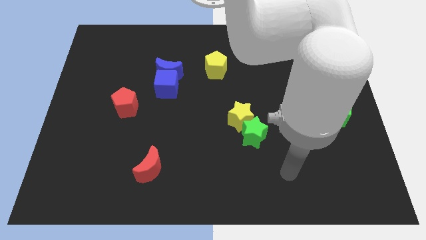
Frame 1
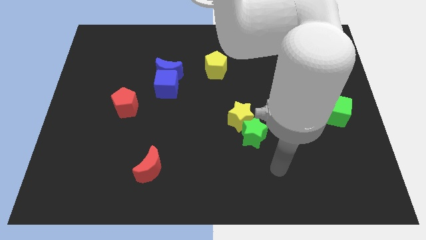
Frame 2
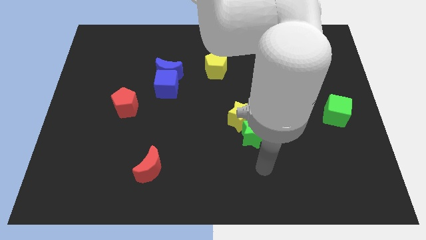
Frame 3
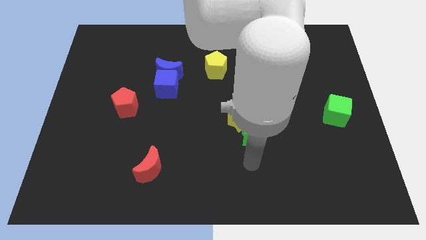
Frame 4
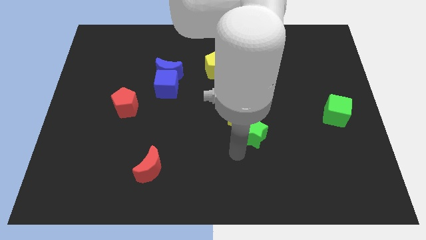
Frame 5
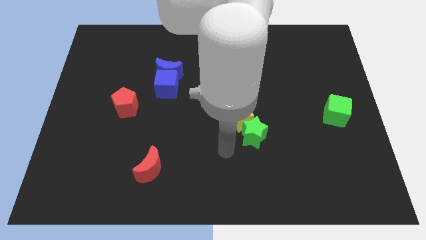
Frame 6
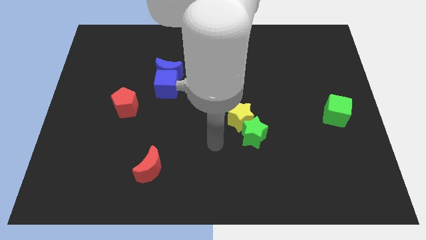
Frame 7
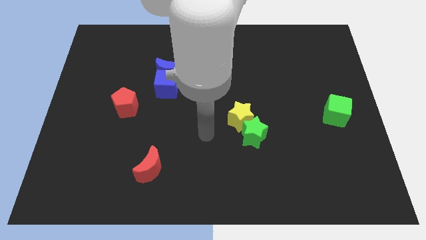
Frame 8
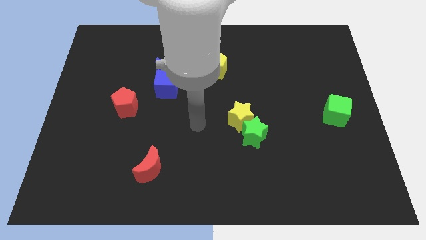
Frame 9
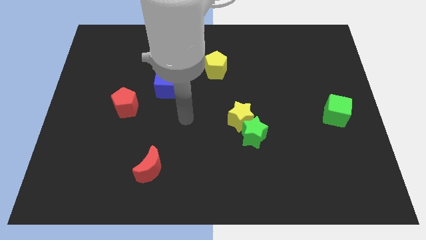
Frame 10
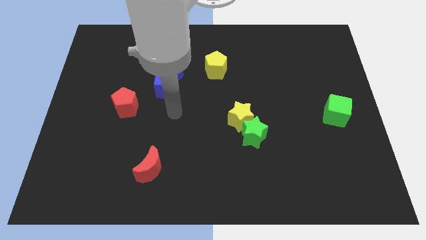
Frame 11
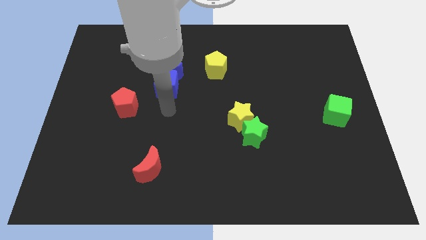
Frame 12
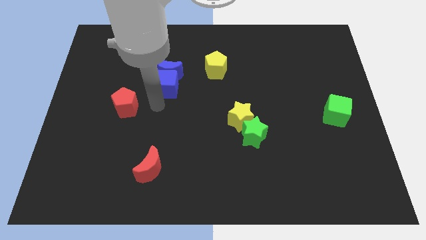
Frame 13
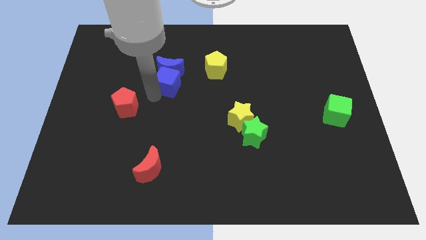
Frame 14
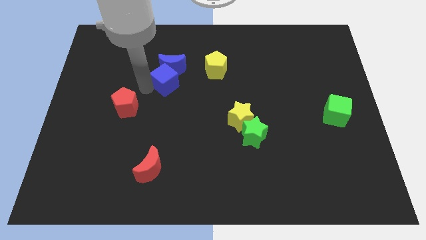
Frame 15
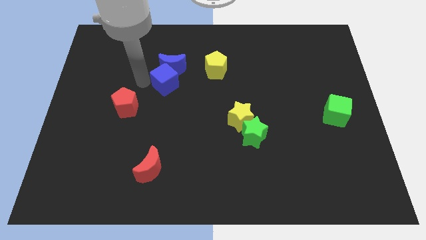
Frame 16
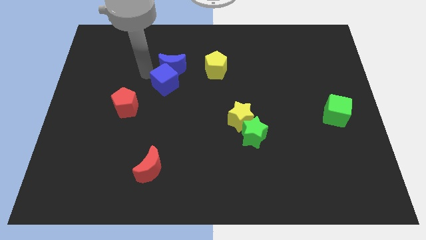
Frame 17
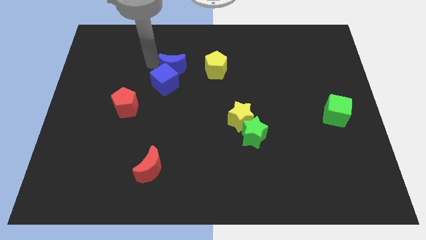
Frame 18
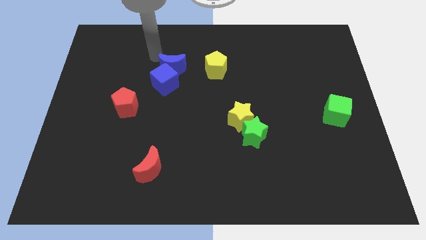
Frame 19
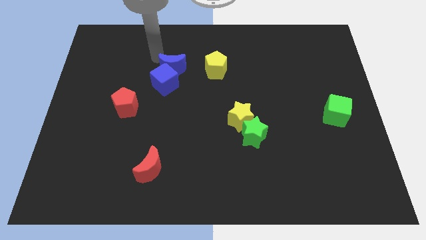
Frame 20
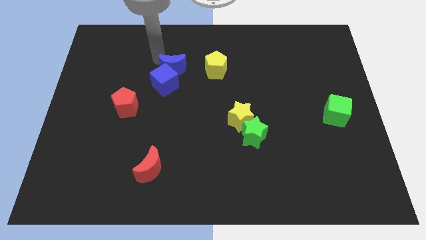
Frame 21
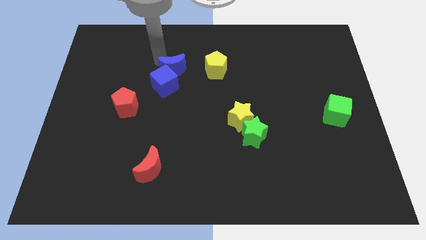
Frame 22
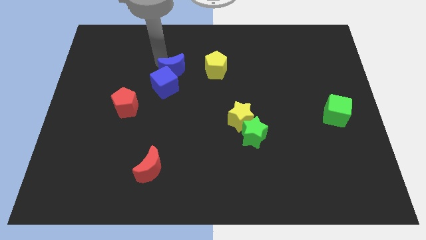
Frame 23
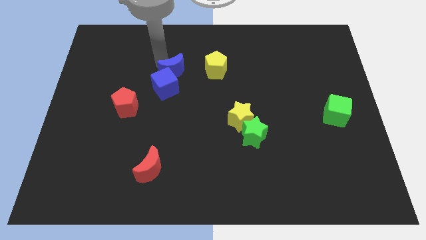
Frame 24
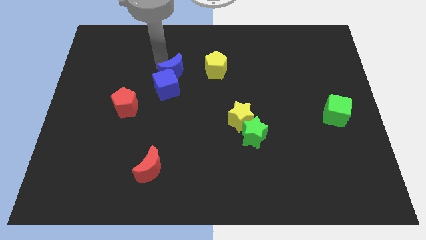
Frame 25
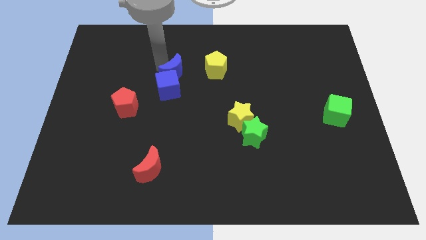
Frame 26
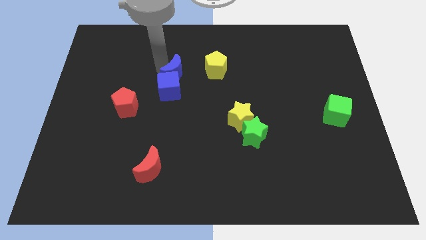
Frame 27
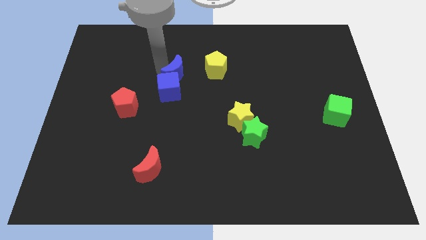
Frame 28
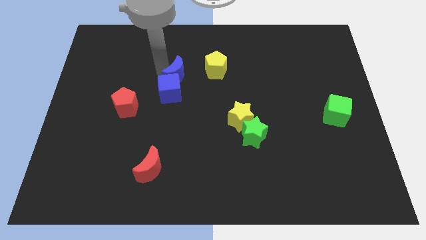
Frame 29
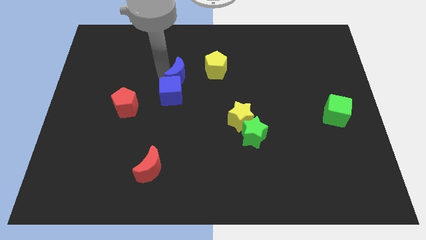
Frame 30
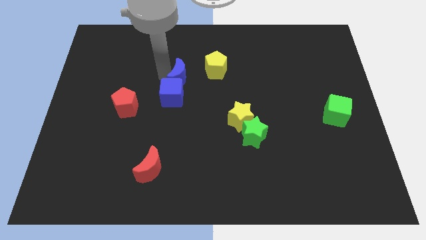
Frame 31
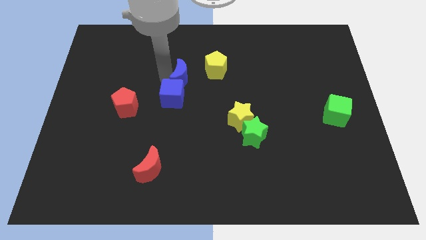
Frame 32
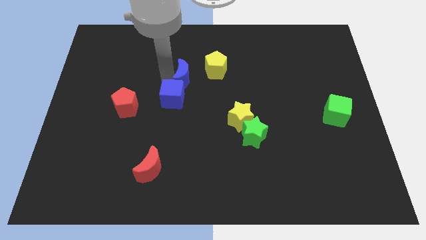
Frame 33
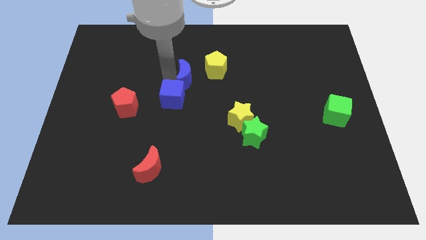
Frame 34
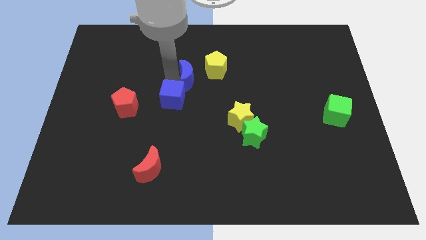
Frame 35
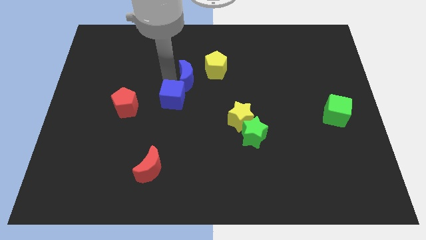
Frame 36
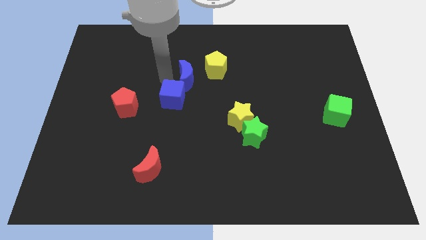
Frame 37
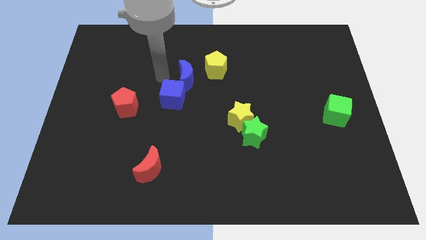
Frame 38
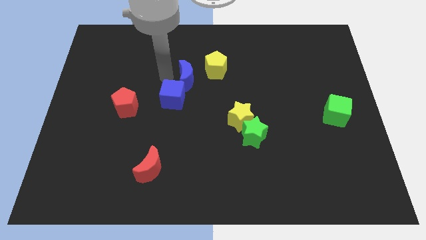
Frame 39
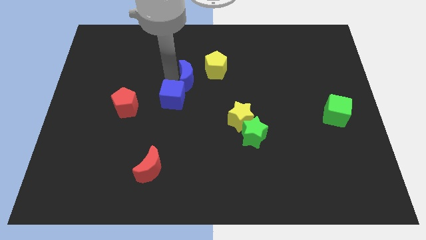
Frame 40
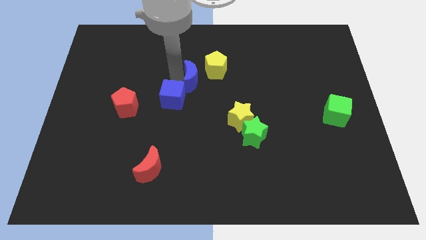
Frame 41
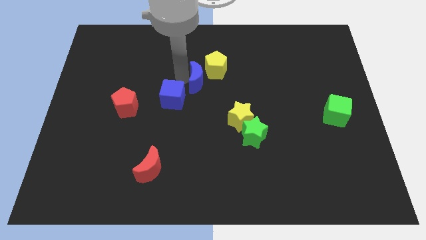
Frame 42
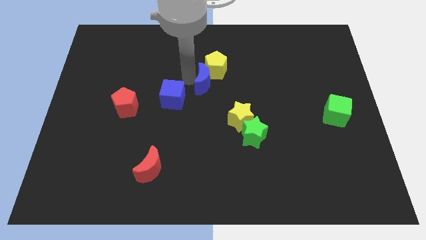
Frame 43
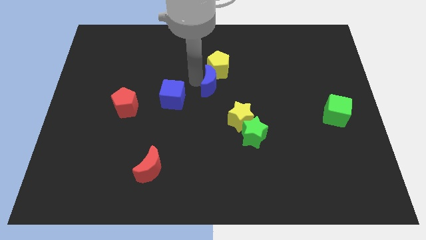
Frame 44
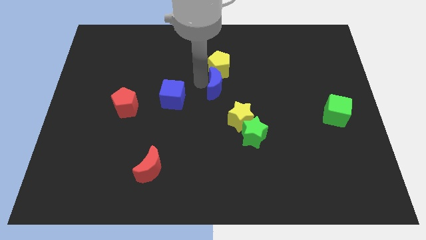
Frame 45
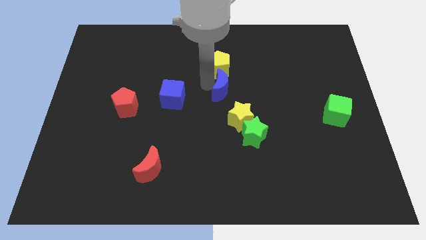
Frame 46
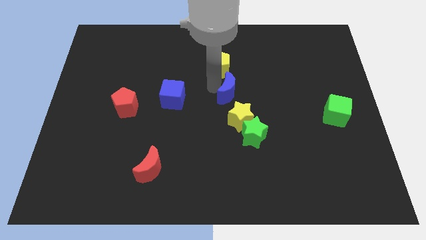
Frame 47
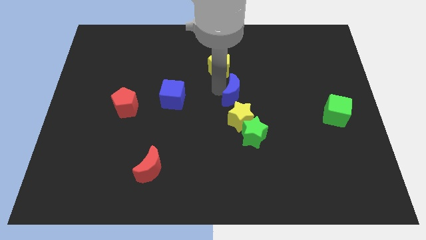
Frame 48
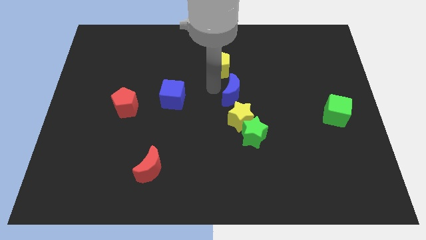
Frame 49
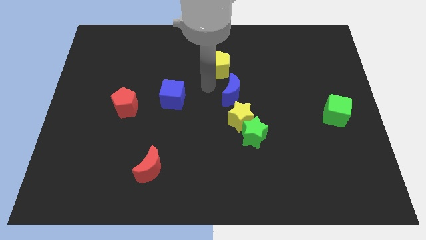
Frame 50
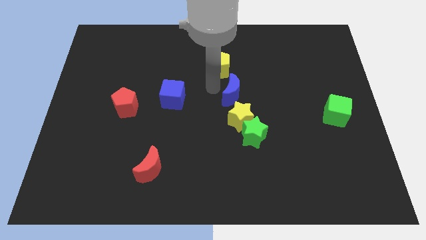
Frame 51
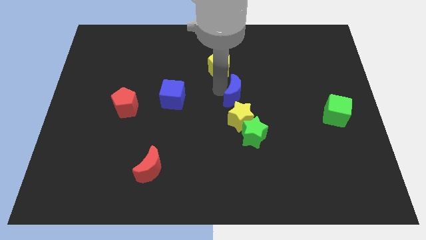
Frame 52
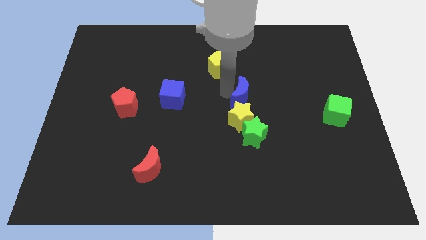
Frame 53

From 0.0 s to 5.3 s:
move the blue moon diagonally up and to the right of the yellow star

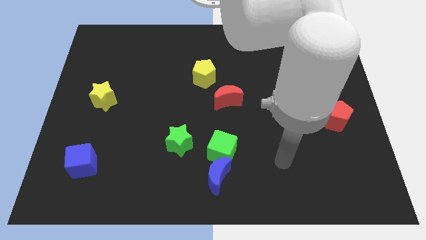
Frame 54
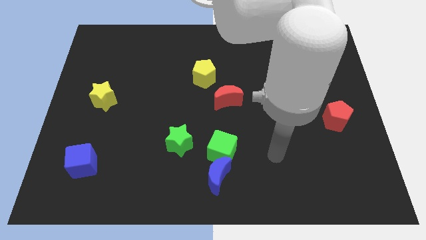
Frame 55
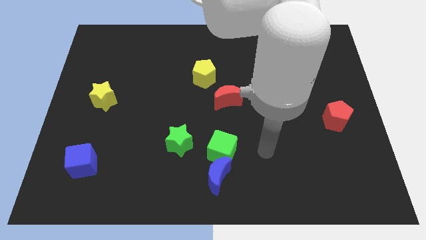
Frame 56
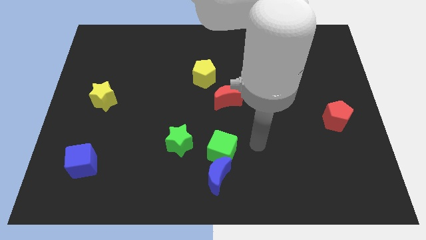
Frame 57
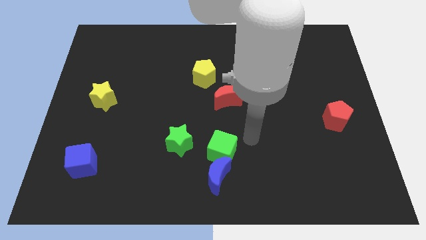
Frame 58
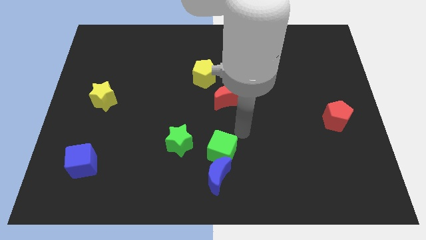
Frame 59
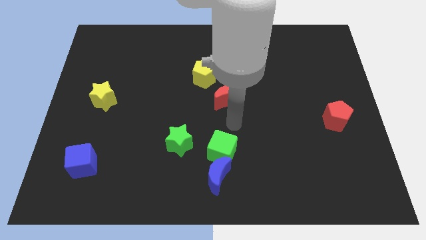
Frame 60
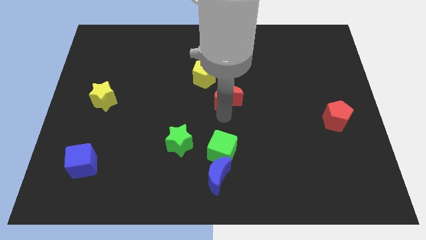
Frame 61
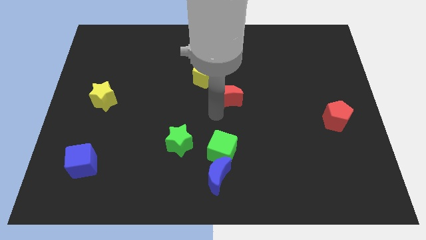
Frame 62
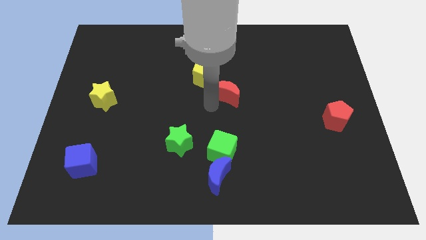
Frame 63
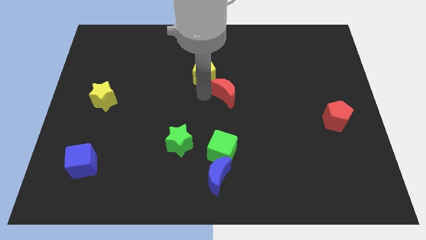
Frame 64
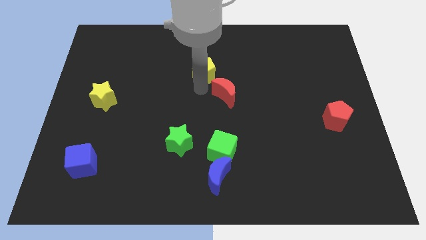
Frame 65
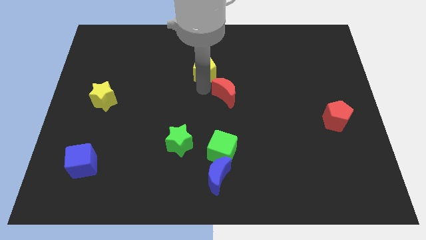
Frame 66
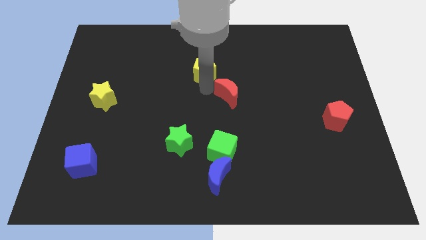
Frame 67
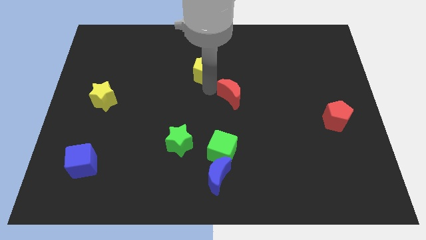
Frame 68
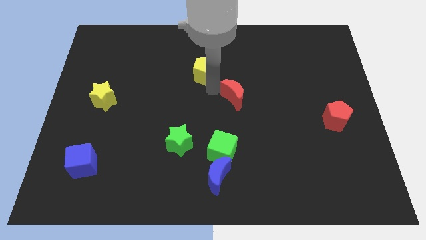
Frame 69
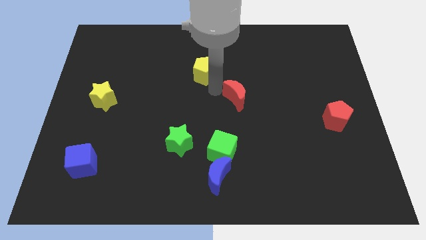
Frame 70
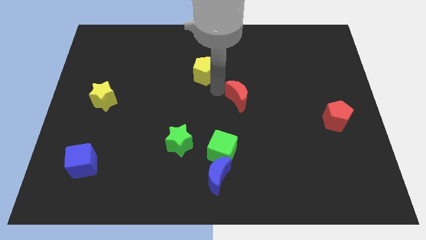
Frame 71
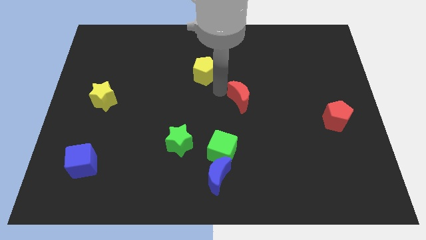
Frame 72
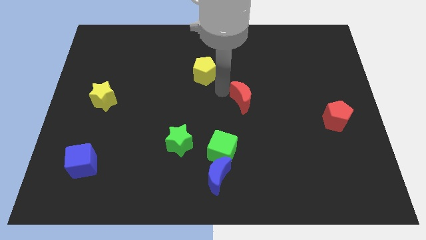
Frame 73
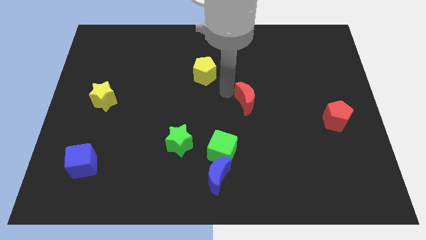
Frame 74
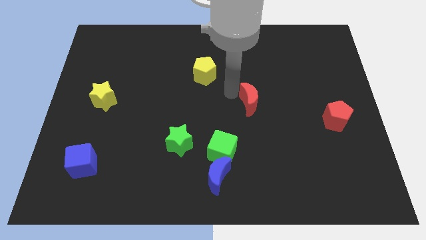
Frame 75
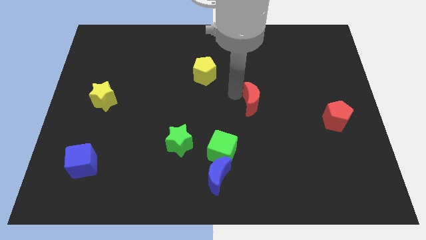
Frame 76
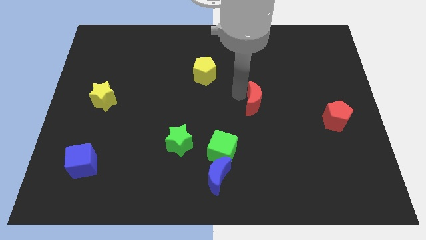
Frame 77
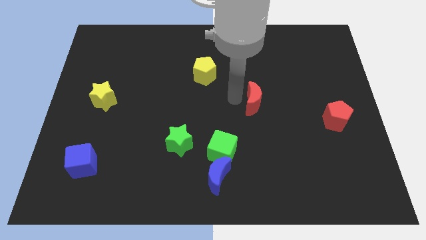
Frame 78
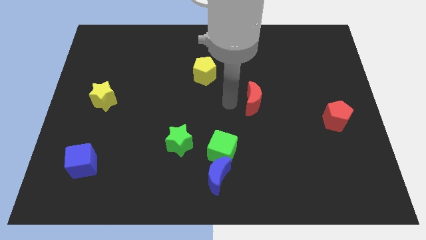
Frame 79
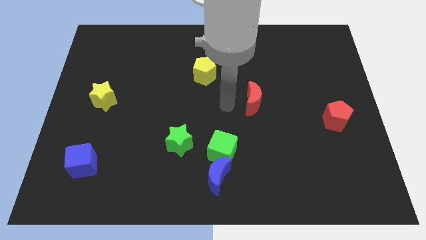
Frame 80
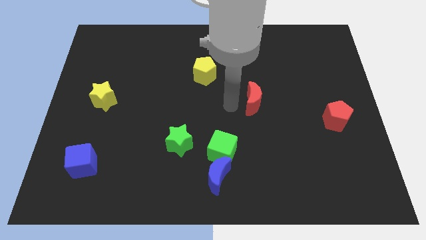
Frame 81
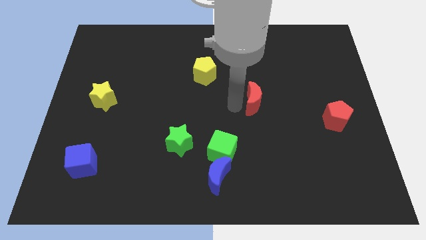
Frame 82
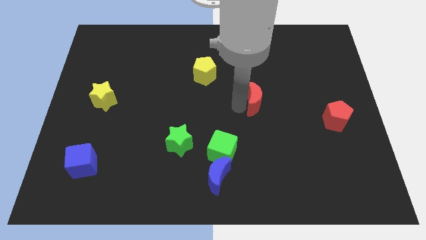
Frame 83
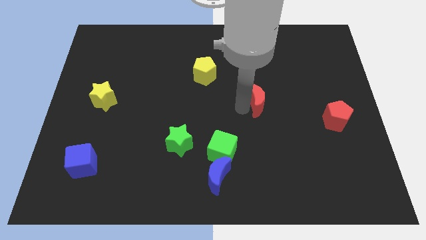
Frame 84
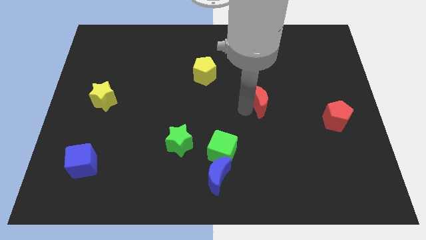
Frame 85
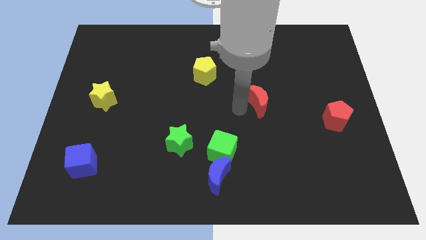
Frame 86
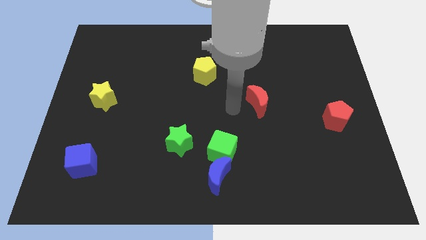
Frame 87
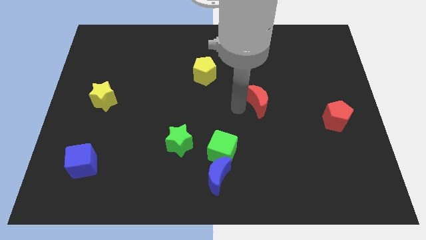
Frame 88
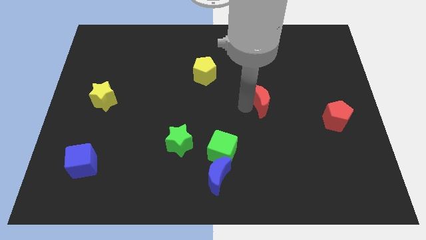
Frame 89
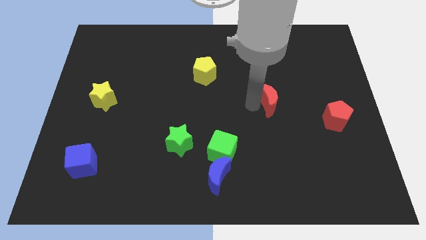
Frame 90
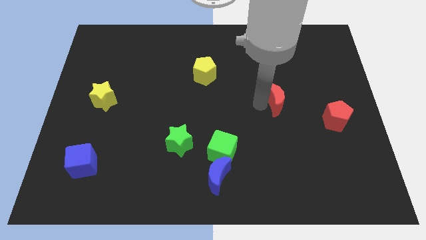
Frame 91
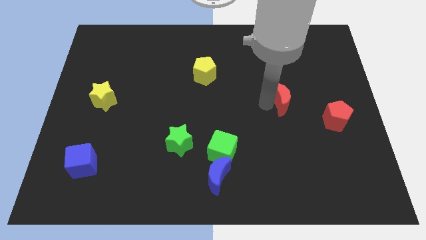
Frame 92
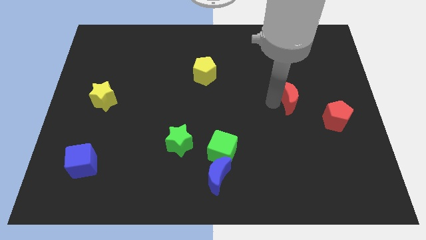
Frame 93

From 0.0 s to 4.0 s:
push the red moon to the top left of the red pentagon
